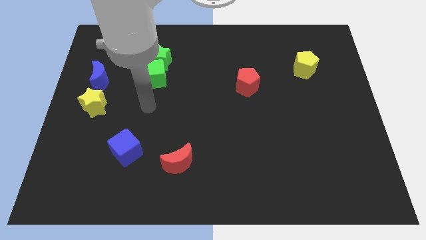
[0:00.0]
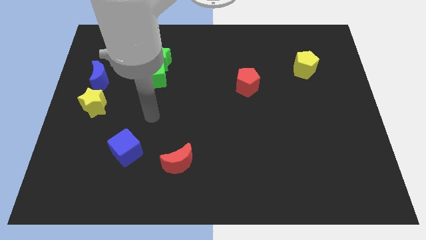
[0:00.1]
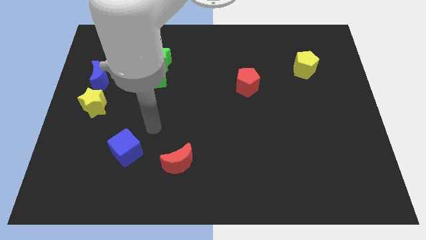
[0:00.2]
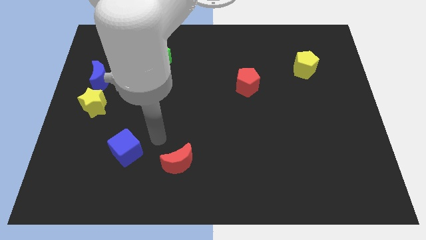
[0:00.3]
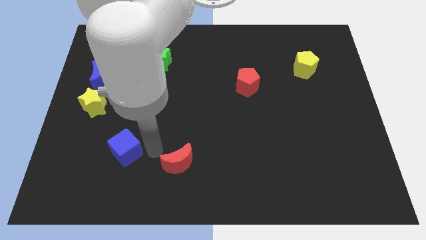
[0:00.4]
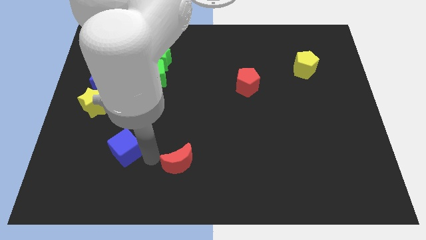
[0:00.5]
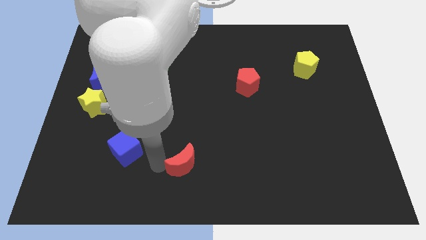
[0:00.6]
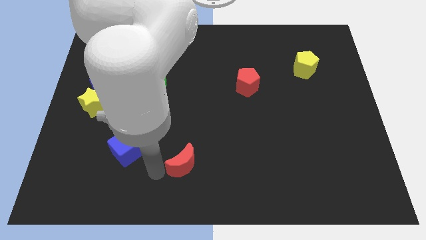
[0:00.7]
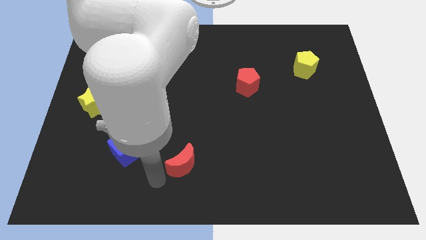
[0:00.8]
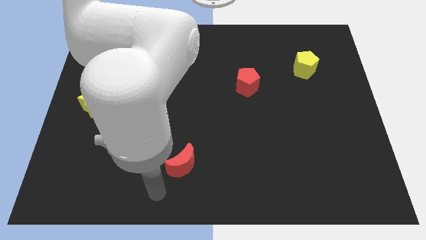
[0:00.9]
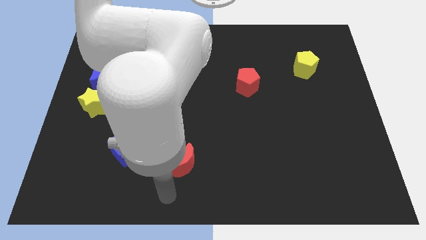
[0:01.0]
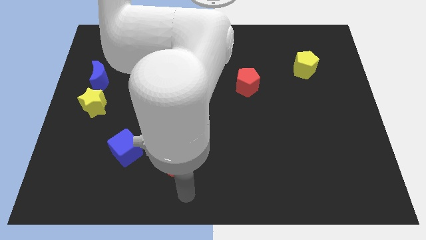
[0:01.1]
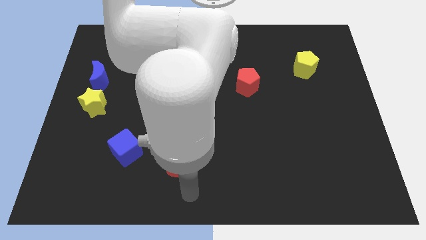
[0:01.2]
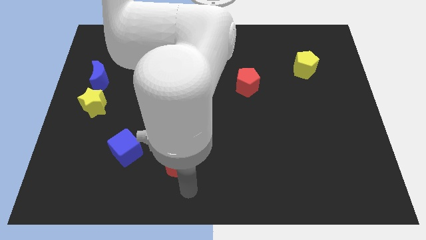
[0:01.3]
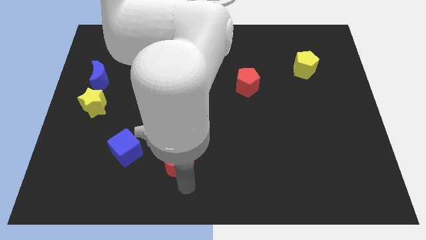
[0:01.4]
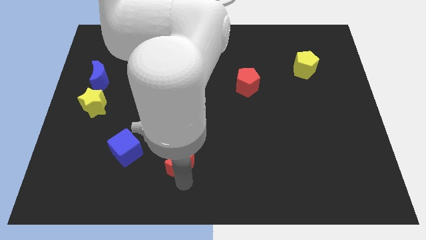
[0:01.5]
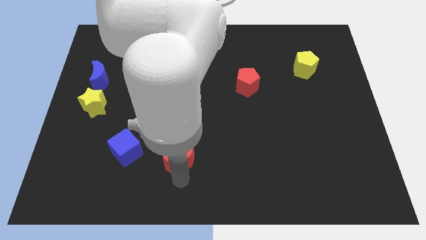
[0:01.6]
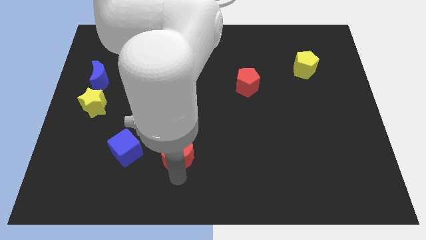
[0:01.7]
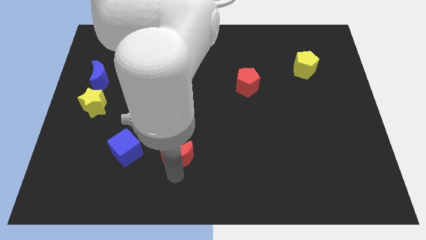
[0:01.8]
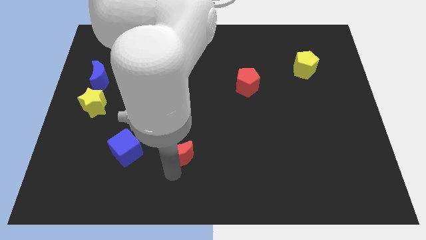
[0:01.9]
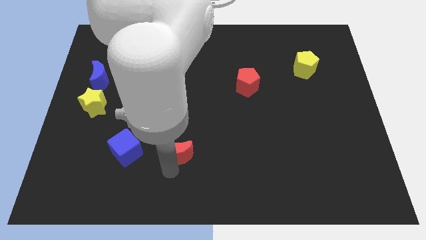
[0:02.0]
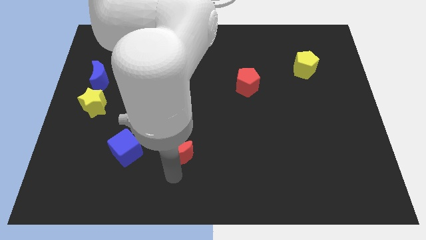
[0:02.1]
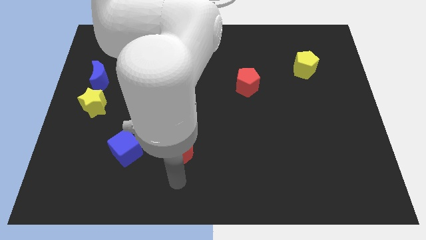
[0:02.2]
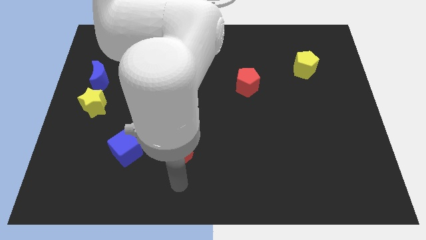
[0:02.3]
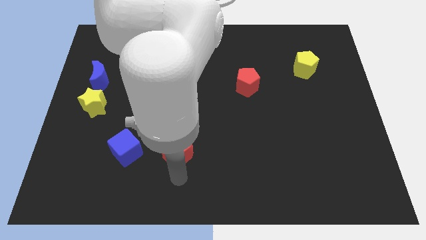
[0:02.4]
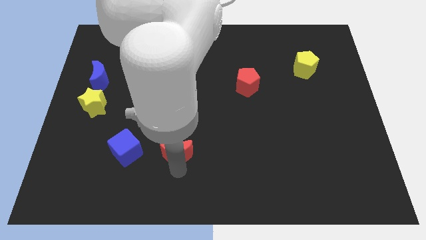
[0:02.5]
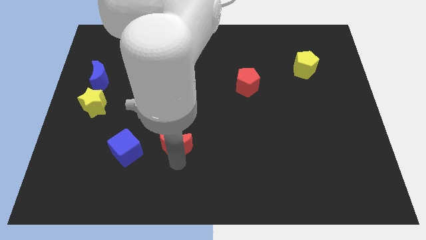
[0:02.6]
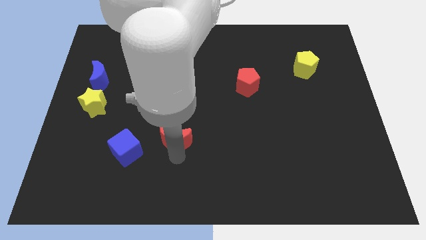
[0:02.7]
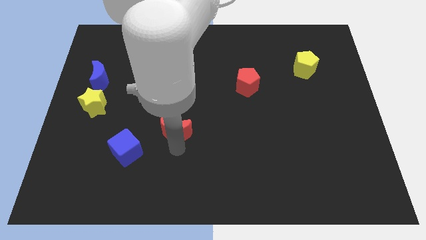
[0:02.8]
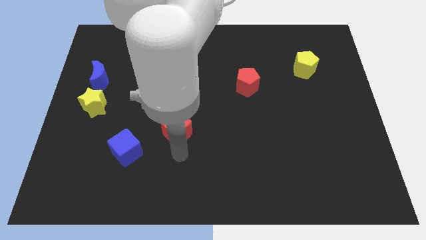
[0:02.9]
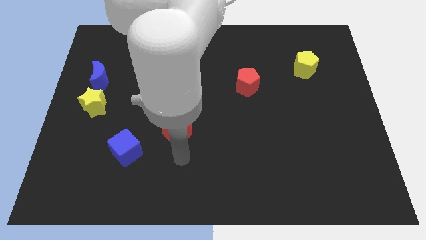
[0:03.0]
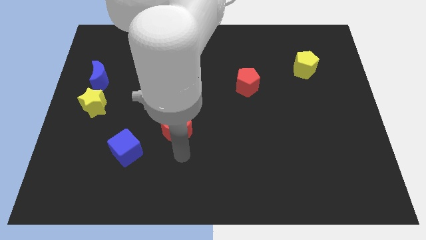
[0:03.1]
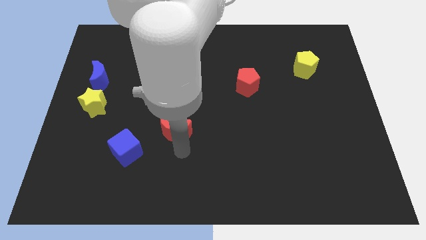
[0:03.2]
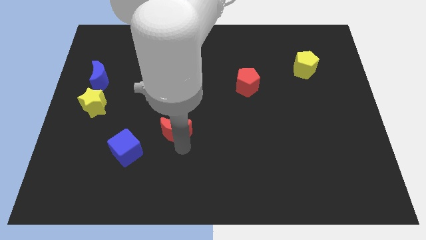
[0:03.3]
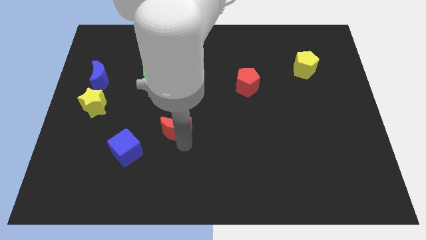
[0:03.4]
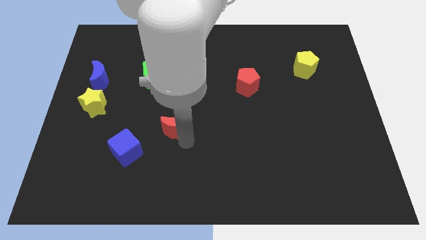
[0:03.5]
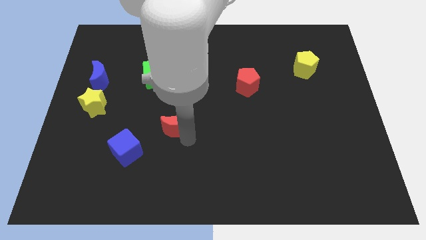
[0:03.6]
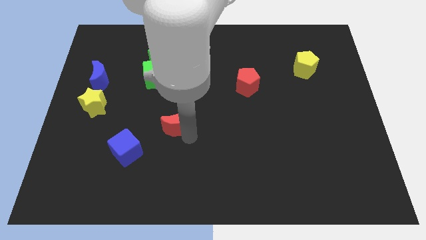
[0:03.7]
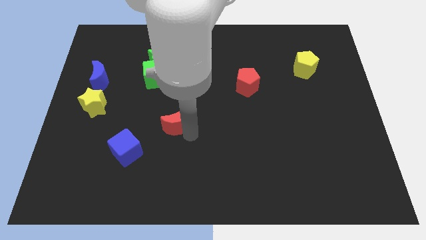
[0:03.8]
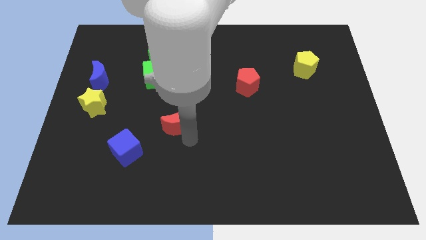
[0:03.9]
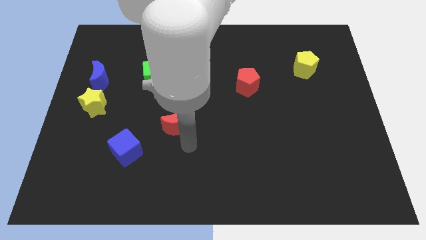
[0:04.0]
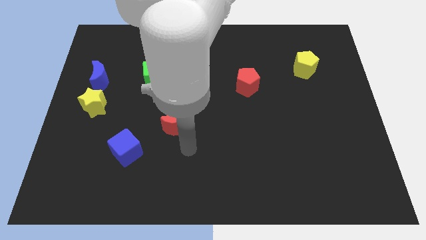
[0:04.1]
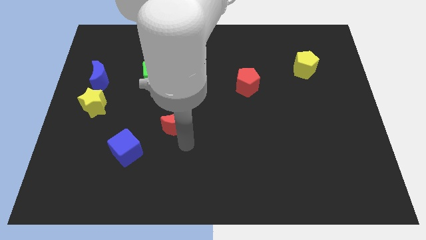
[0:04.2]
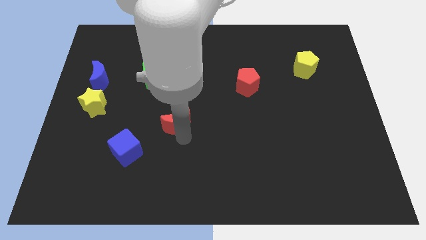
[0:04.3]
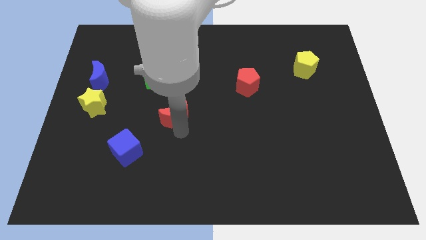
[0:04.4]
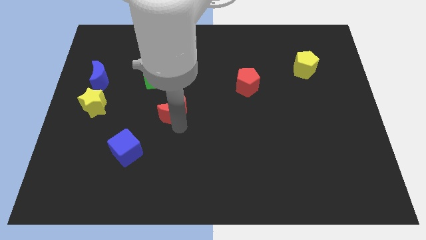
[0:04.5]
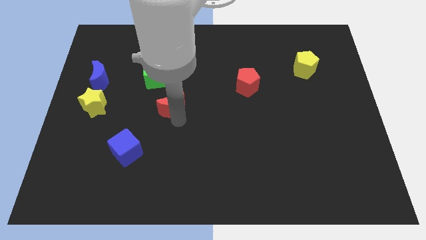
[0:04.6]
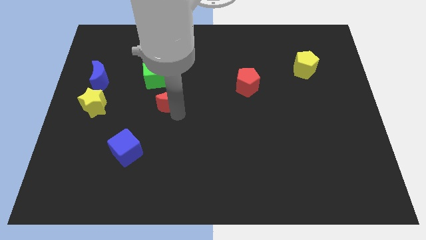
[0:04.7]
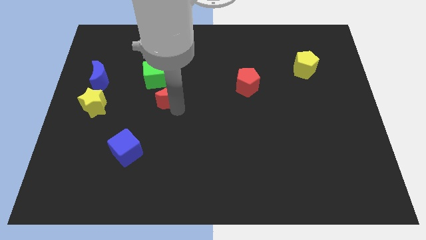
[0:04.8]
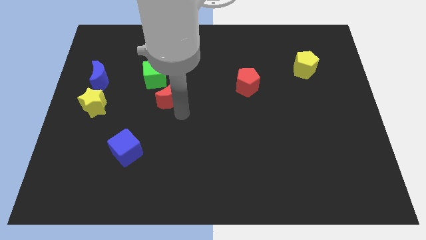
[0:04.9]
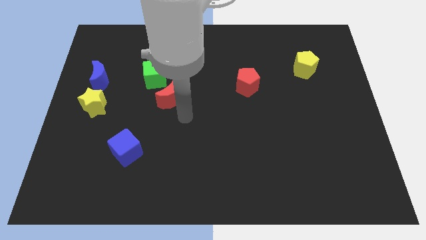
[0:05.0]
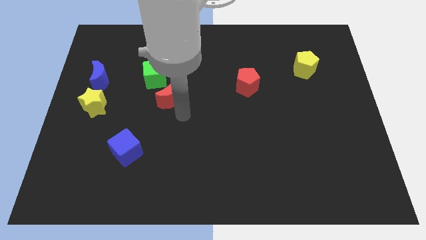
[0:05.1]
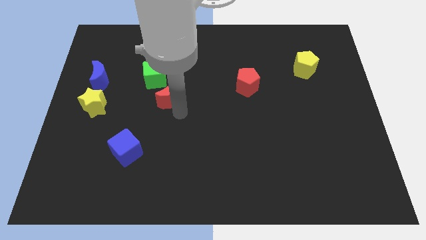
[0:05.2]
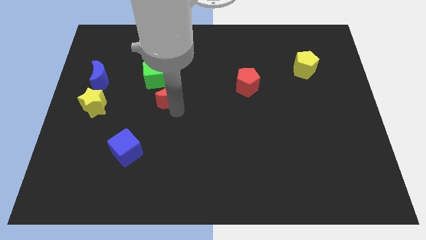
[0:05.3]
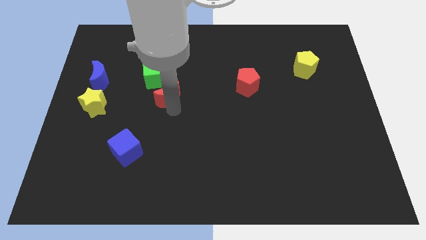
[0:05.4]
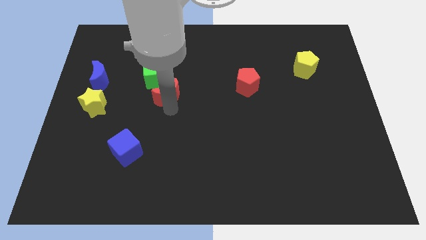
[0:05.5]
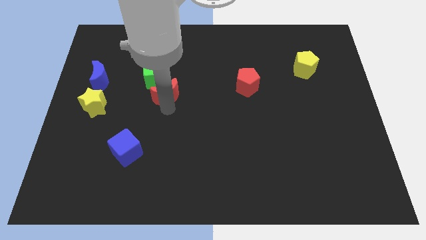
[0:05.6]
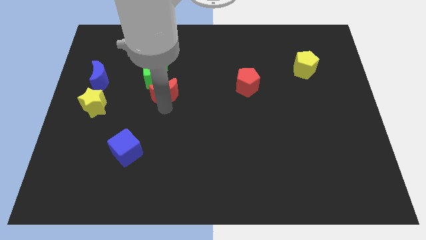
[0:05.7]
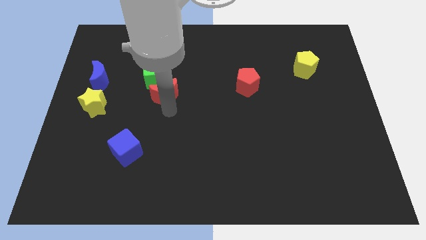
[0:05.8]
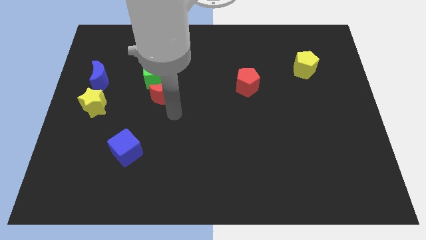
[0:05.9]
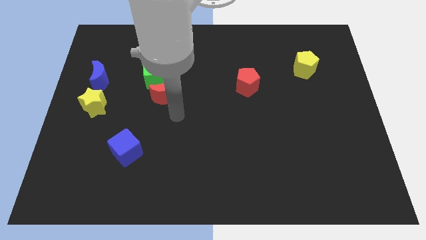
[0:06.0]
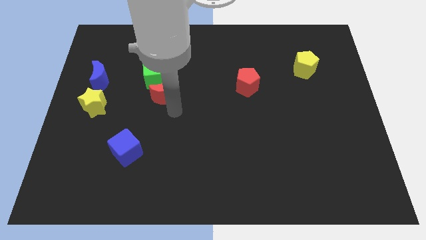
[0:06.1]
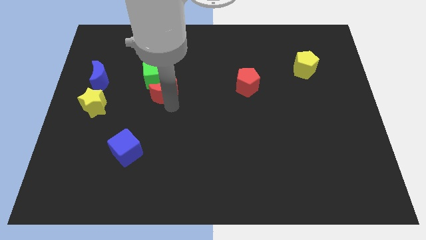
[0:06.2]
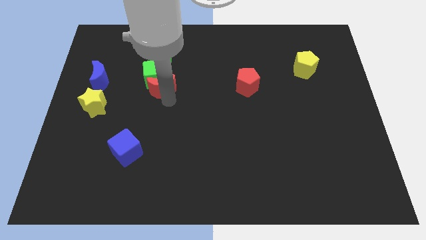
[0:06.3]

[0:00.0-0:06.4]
put the red moon to the green cube
